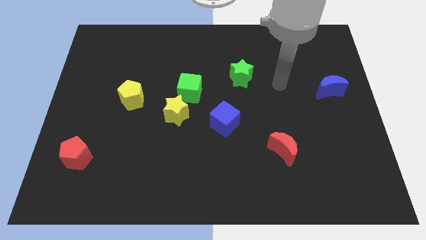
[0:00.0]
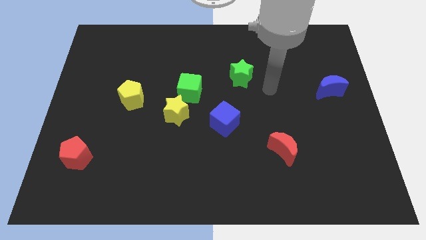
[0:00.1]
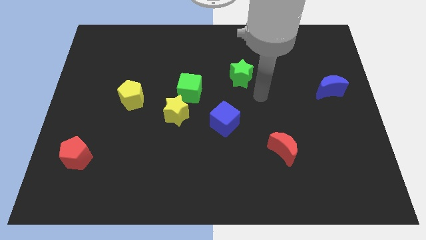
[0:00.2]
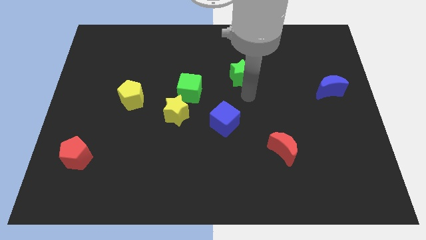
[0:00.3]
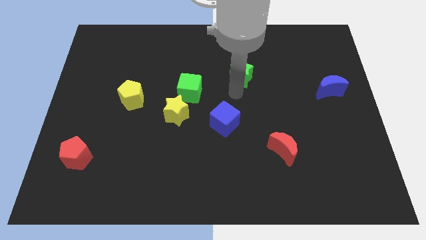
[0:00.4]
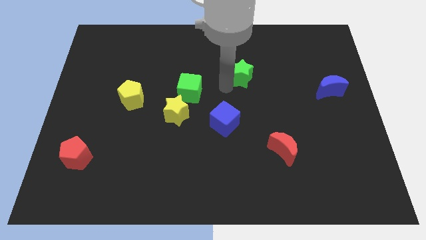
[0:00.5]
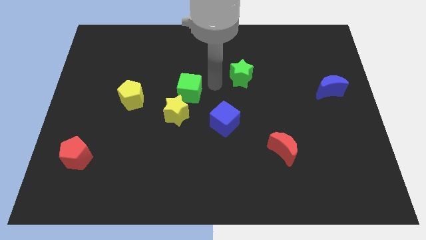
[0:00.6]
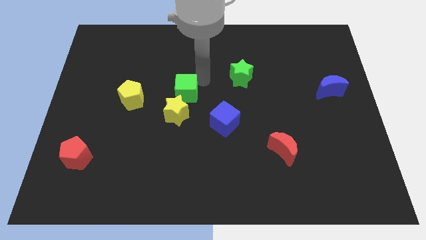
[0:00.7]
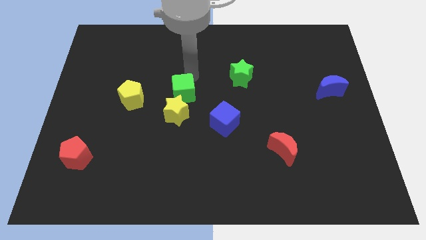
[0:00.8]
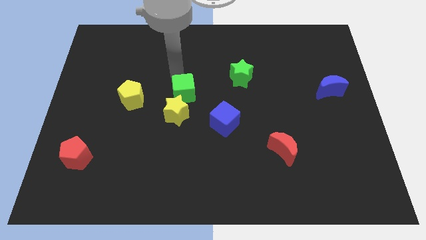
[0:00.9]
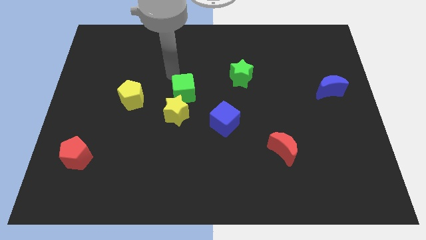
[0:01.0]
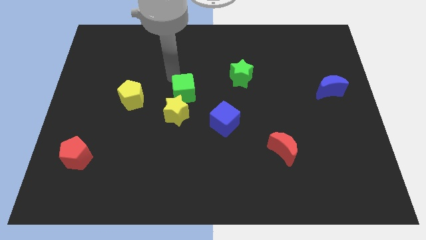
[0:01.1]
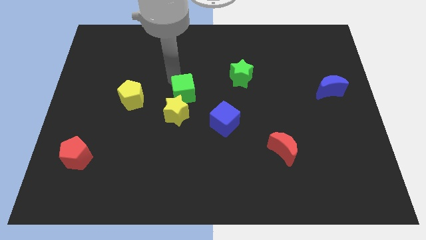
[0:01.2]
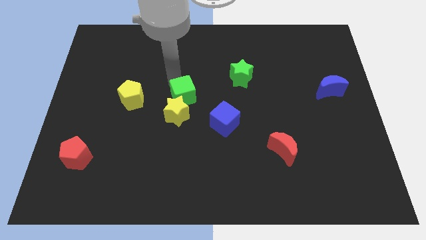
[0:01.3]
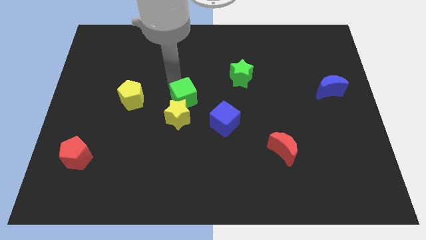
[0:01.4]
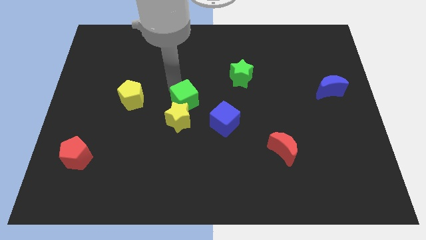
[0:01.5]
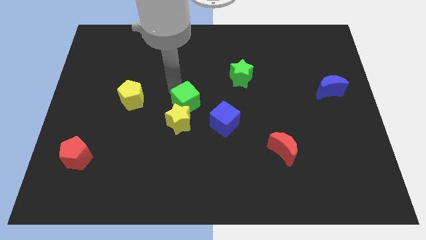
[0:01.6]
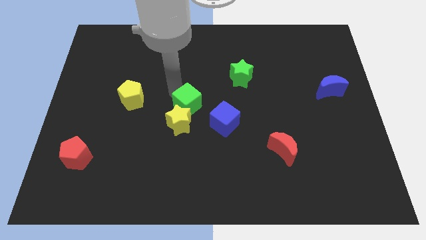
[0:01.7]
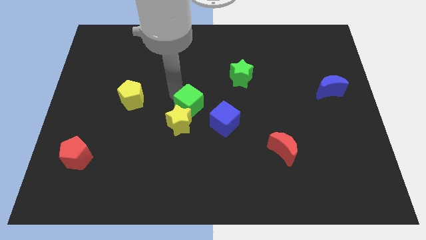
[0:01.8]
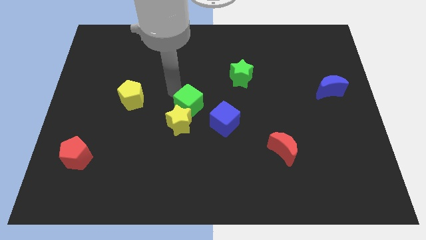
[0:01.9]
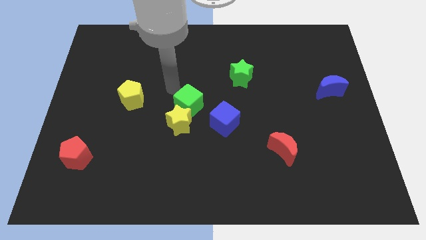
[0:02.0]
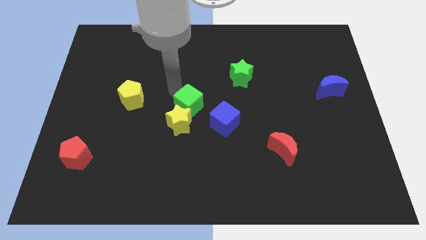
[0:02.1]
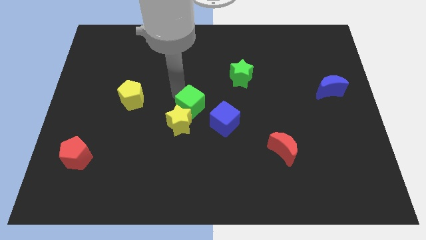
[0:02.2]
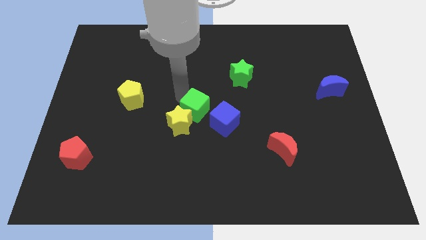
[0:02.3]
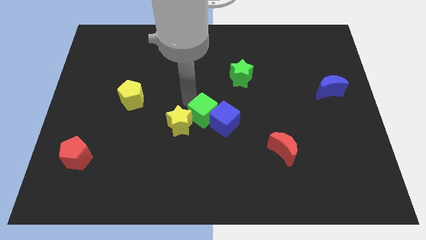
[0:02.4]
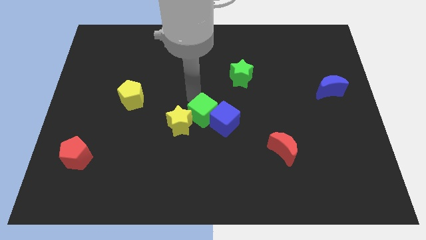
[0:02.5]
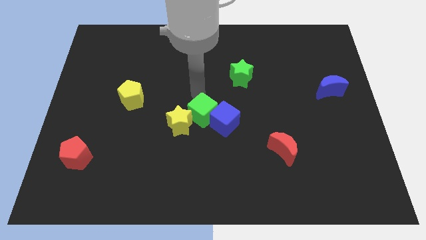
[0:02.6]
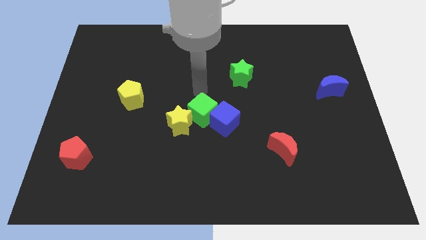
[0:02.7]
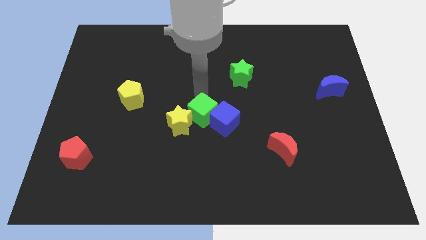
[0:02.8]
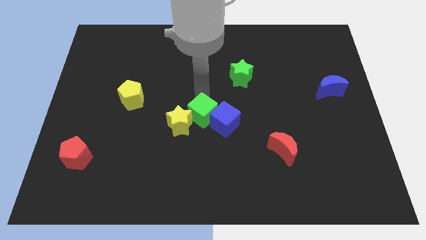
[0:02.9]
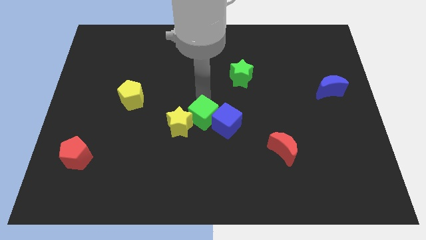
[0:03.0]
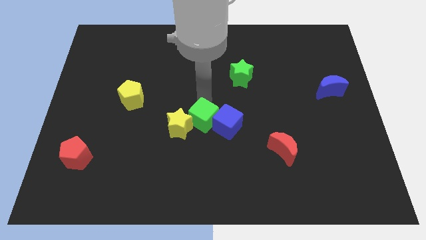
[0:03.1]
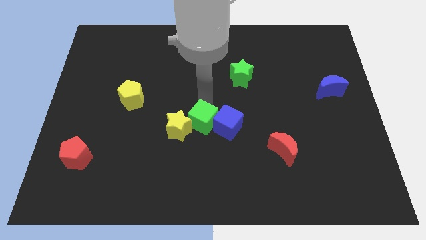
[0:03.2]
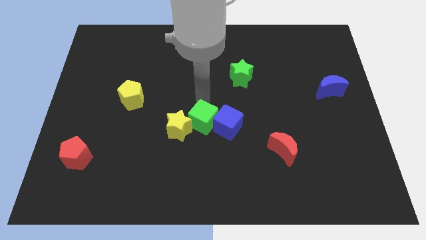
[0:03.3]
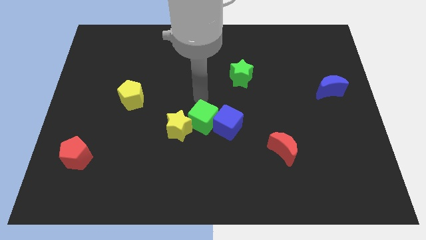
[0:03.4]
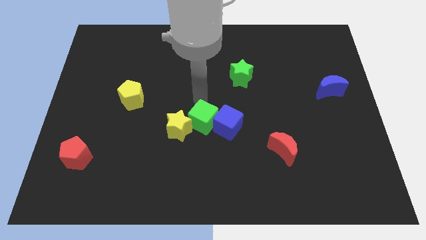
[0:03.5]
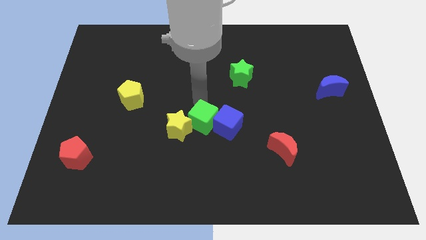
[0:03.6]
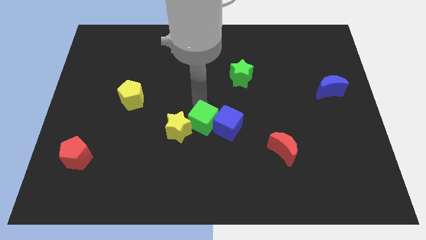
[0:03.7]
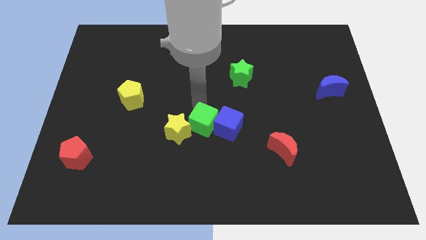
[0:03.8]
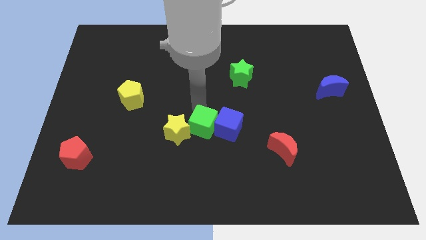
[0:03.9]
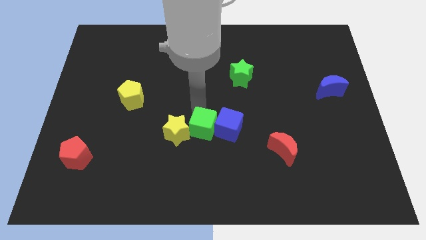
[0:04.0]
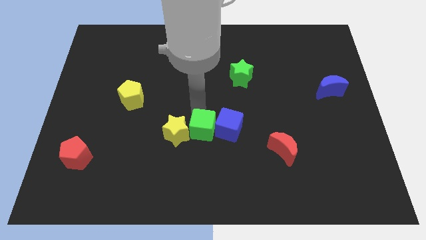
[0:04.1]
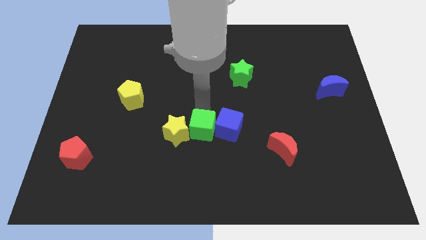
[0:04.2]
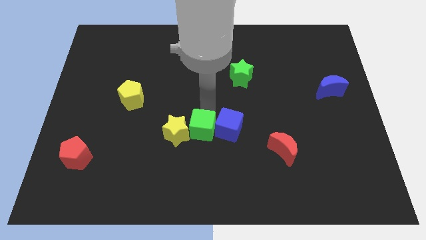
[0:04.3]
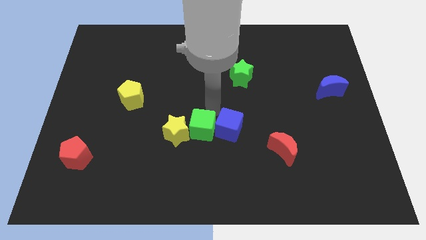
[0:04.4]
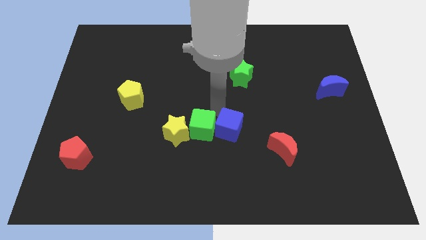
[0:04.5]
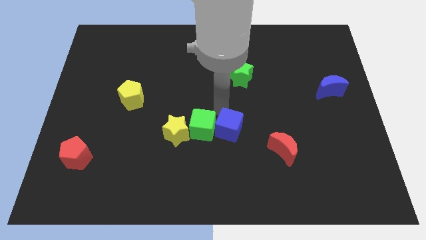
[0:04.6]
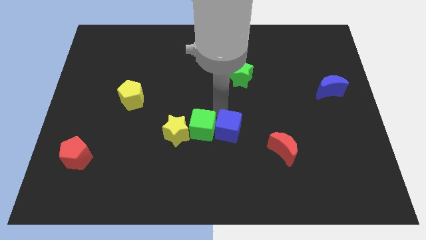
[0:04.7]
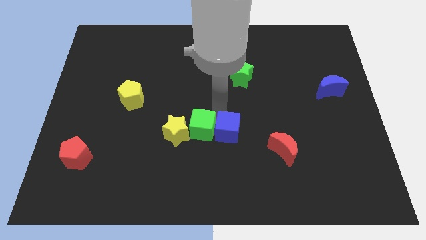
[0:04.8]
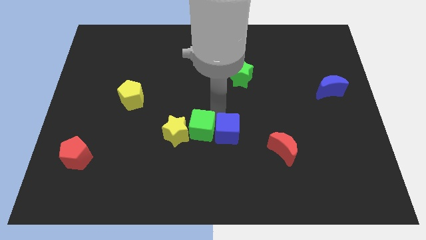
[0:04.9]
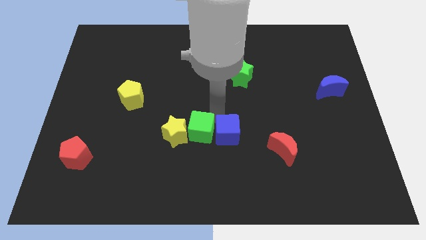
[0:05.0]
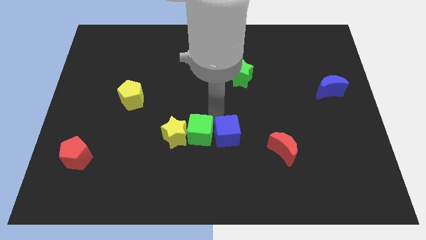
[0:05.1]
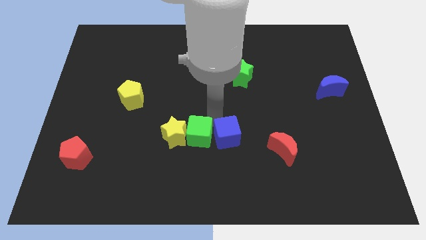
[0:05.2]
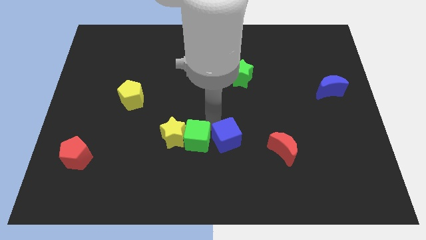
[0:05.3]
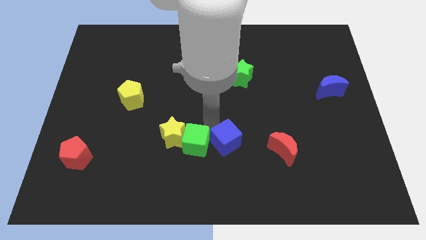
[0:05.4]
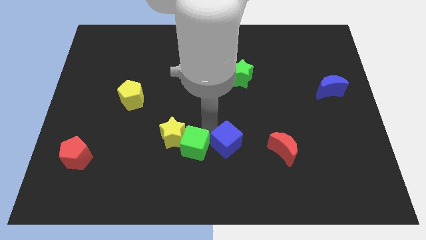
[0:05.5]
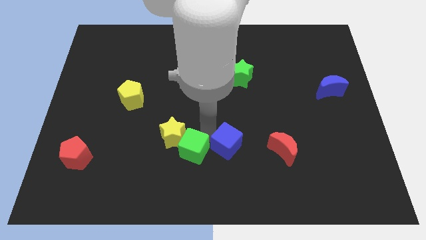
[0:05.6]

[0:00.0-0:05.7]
put the green cube to the bottom side of the yellow star

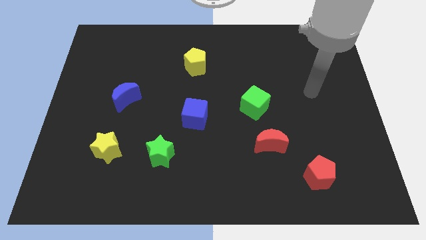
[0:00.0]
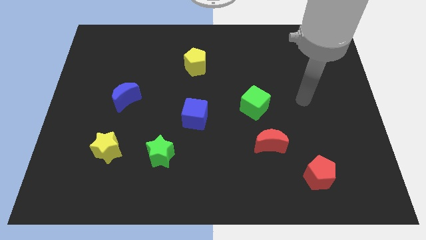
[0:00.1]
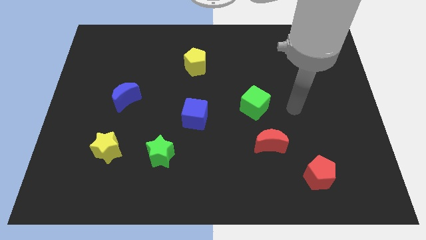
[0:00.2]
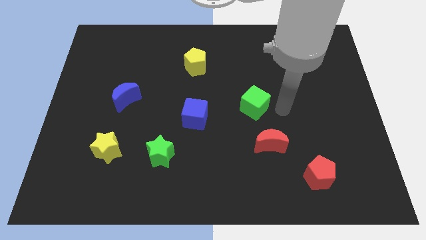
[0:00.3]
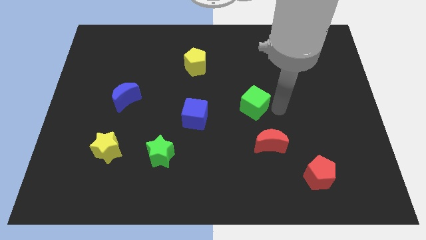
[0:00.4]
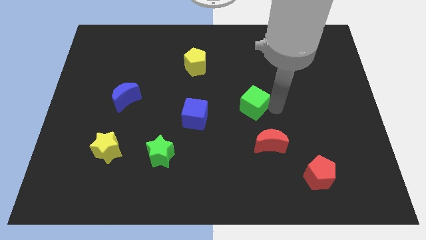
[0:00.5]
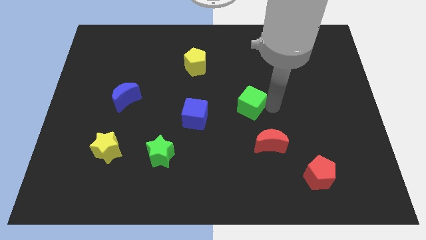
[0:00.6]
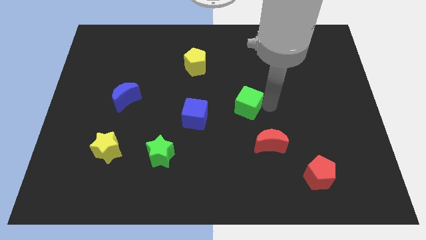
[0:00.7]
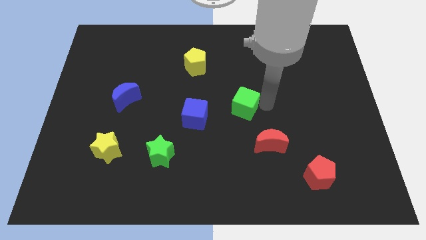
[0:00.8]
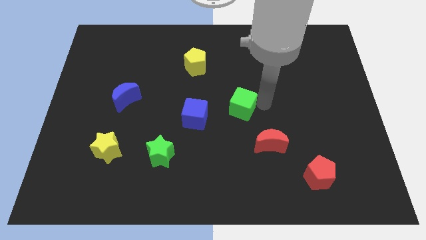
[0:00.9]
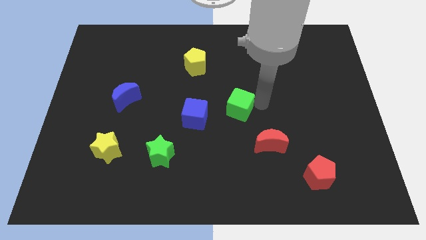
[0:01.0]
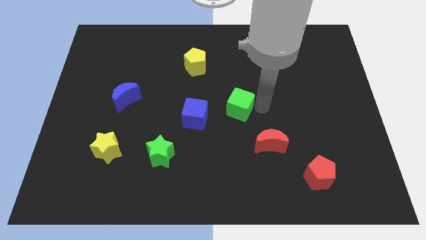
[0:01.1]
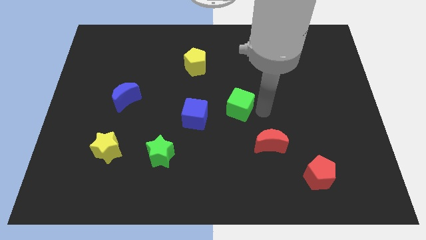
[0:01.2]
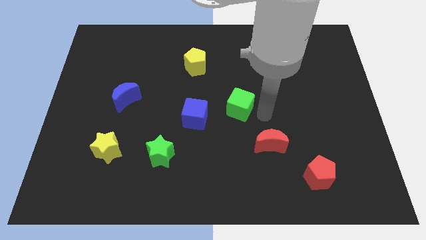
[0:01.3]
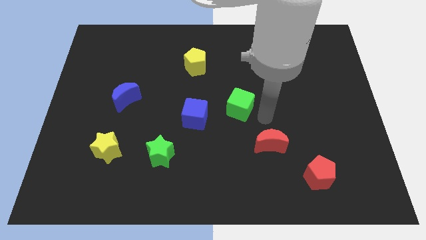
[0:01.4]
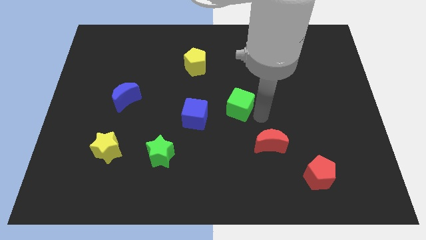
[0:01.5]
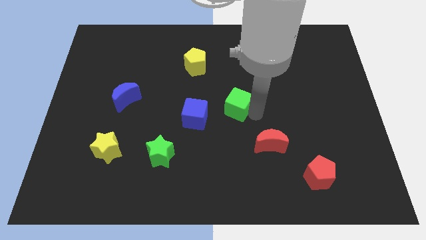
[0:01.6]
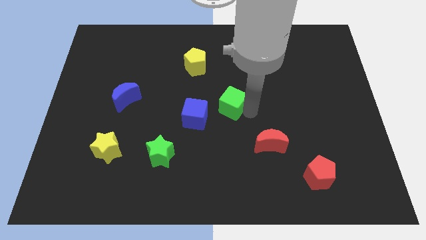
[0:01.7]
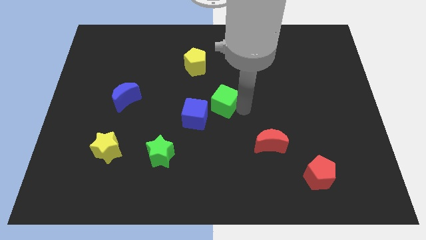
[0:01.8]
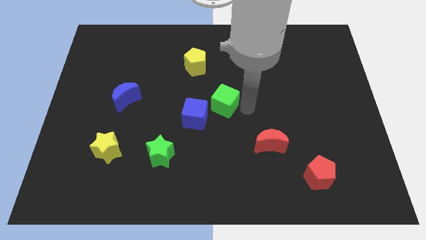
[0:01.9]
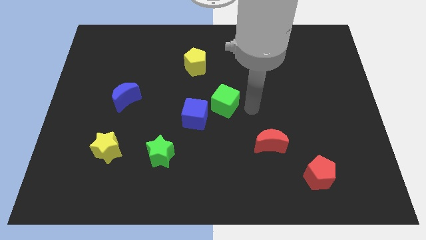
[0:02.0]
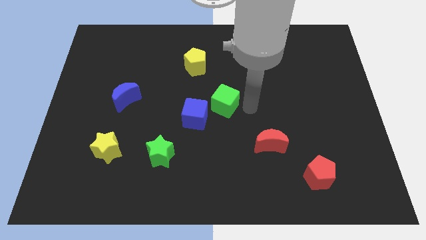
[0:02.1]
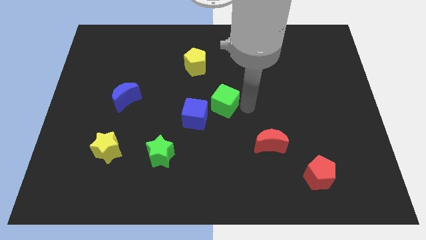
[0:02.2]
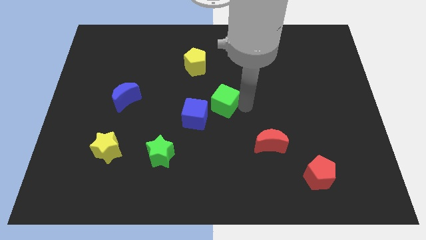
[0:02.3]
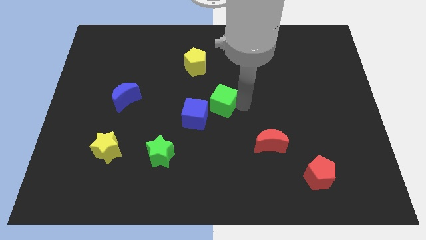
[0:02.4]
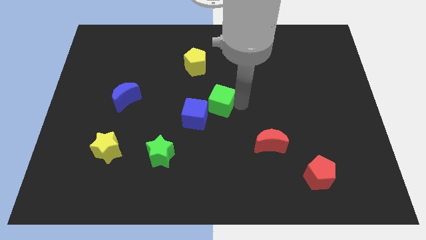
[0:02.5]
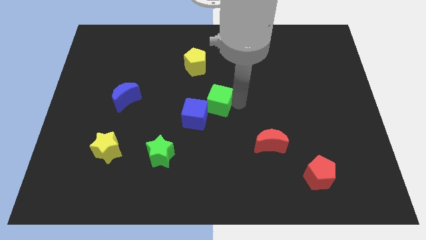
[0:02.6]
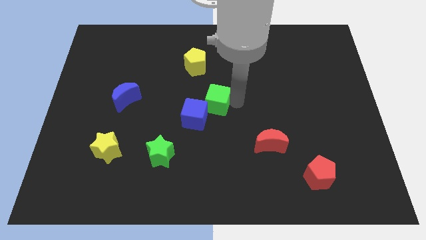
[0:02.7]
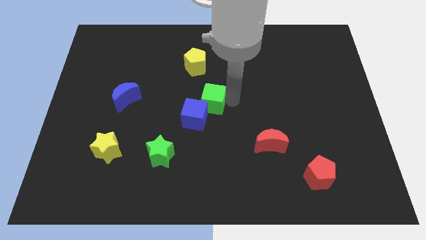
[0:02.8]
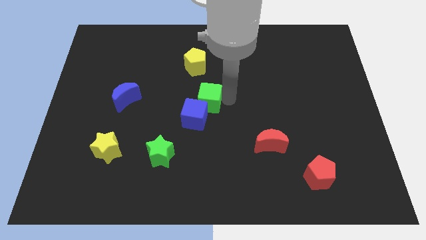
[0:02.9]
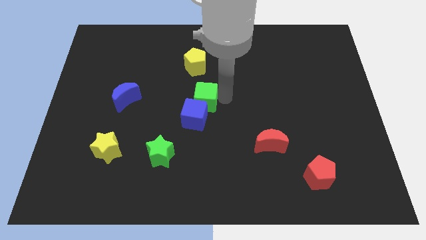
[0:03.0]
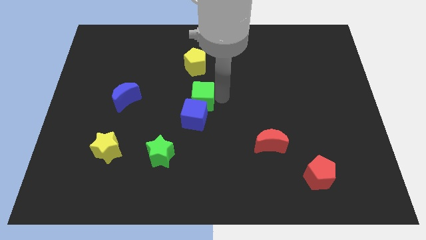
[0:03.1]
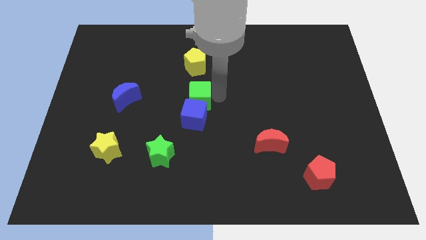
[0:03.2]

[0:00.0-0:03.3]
put the green cube to the top left of the blue cube
